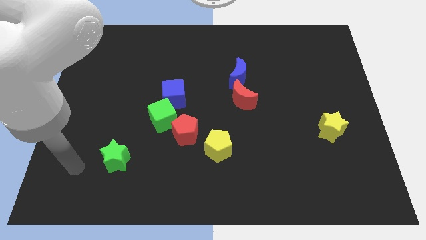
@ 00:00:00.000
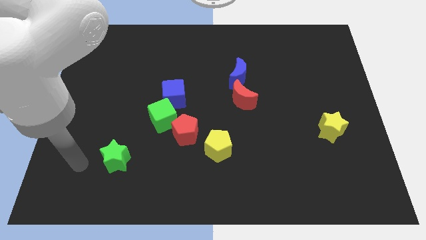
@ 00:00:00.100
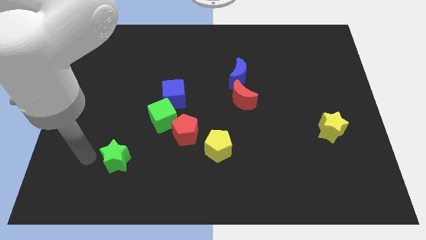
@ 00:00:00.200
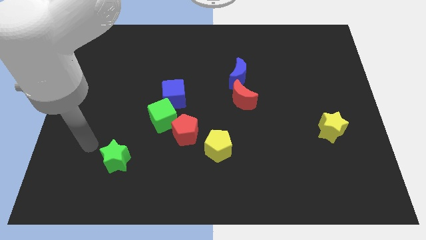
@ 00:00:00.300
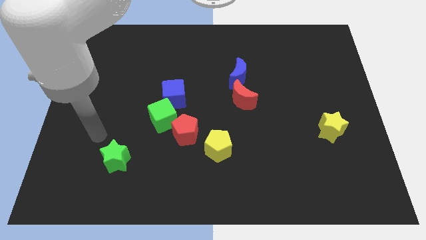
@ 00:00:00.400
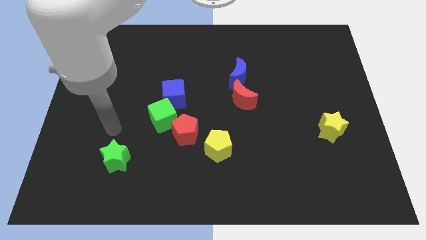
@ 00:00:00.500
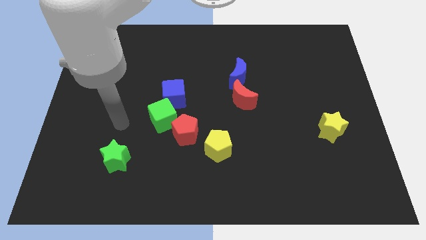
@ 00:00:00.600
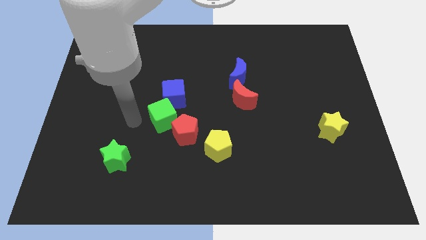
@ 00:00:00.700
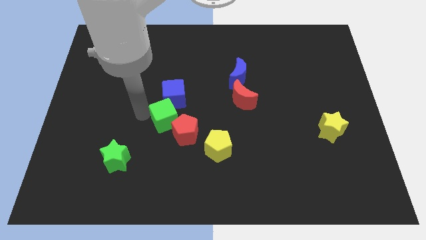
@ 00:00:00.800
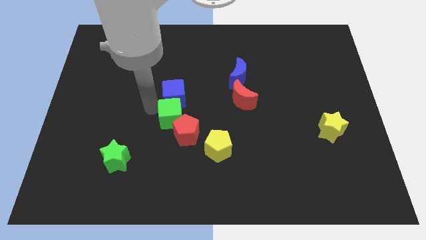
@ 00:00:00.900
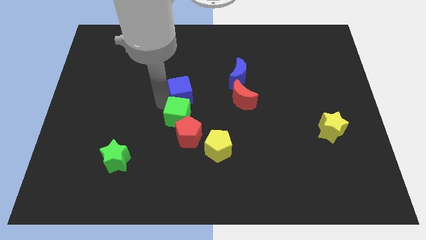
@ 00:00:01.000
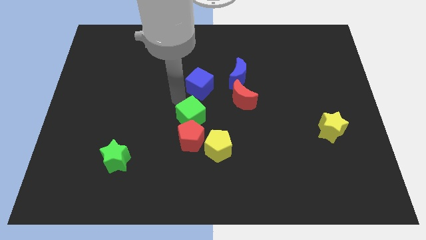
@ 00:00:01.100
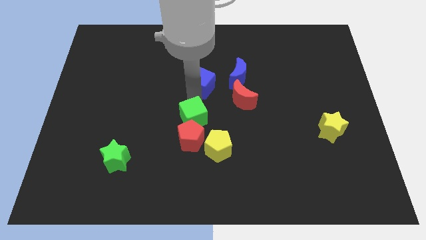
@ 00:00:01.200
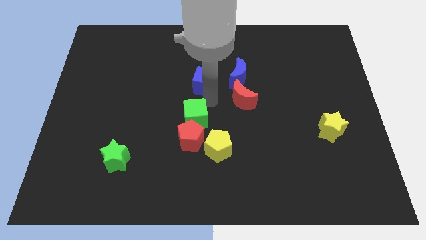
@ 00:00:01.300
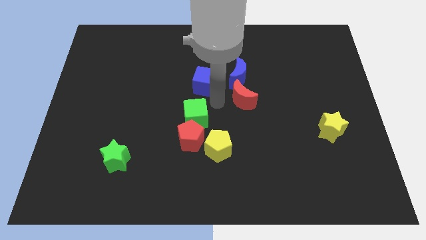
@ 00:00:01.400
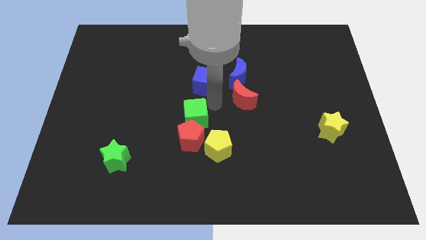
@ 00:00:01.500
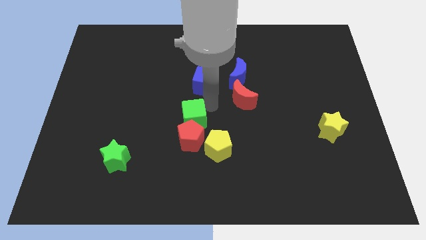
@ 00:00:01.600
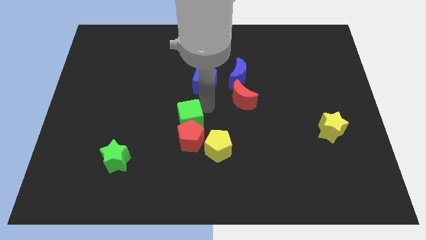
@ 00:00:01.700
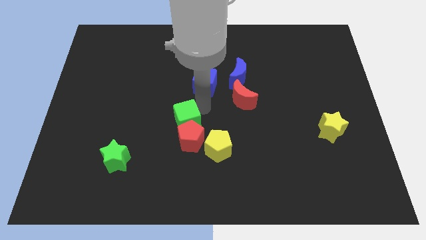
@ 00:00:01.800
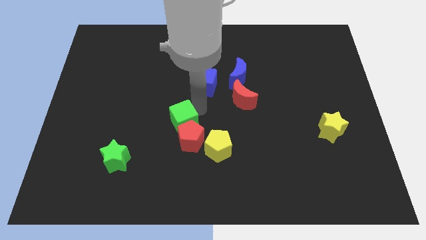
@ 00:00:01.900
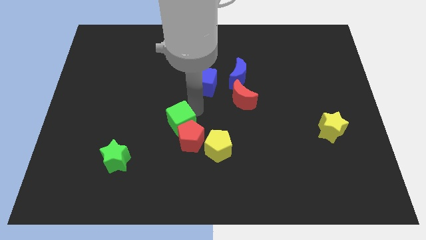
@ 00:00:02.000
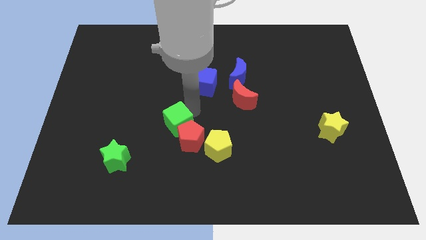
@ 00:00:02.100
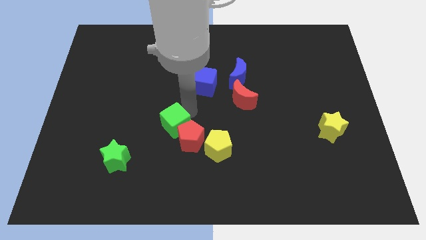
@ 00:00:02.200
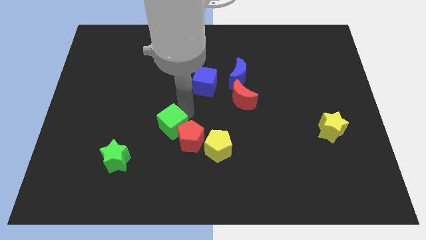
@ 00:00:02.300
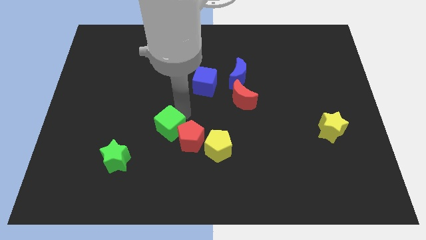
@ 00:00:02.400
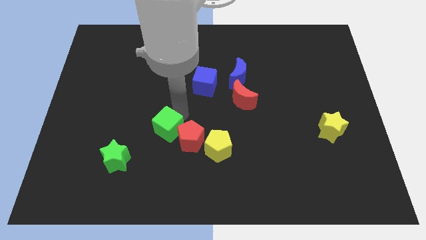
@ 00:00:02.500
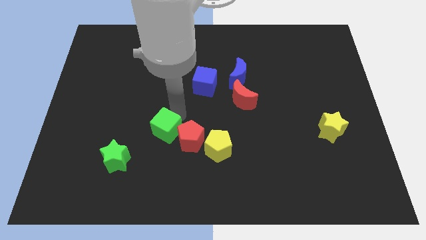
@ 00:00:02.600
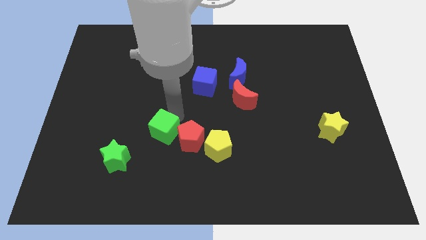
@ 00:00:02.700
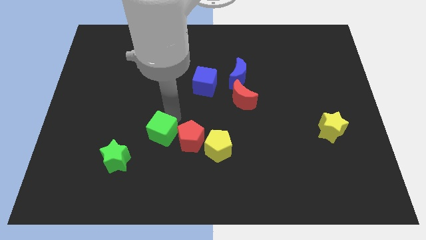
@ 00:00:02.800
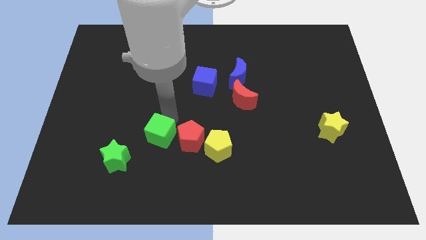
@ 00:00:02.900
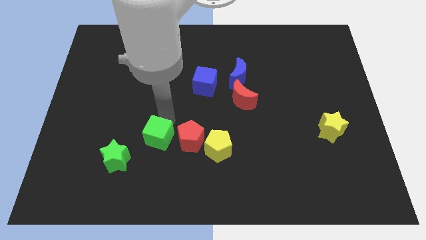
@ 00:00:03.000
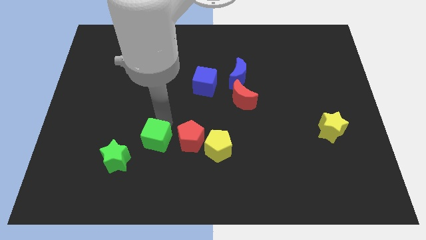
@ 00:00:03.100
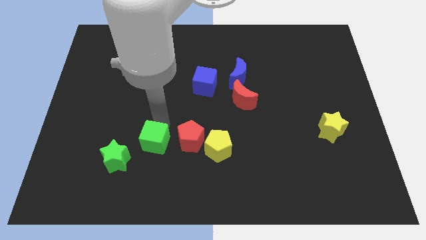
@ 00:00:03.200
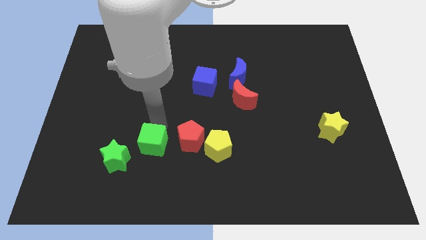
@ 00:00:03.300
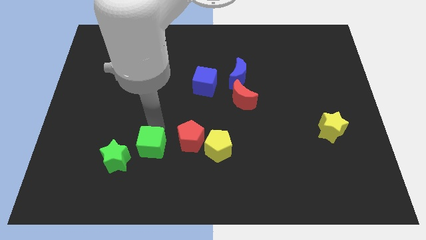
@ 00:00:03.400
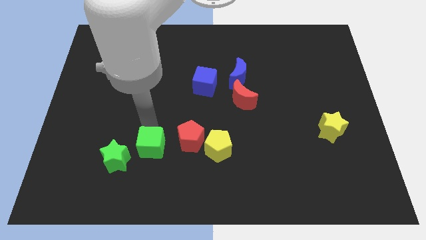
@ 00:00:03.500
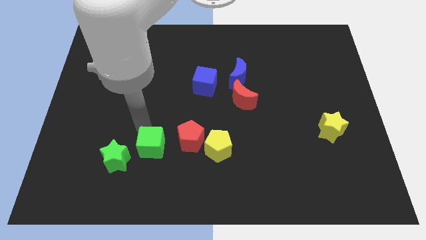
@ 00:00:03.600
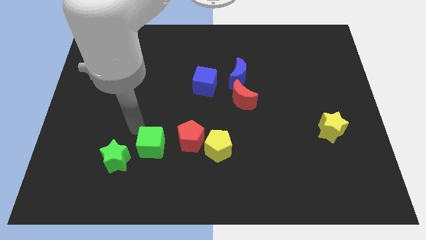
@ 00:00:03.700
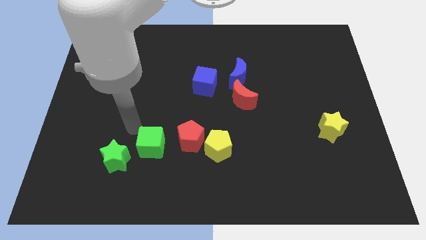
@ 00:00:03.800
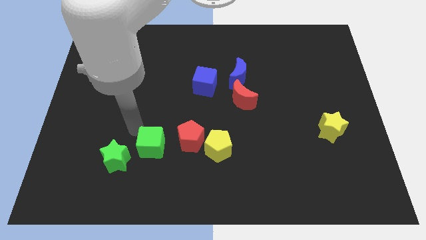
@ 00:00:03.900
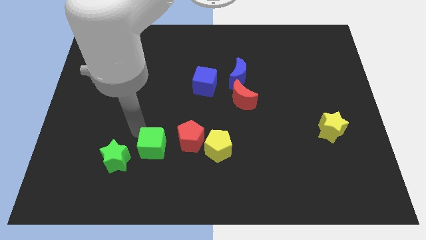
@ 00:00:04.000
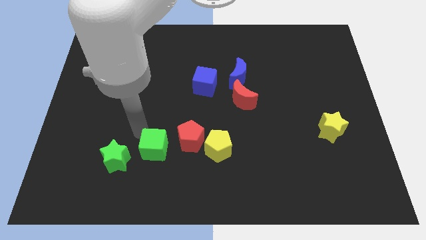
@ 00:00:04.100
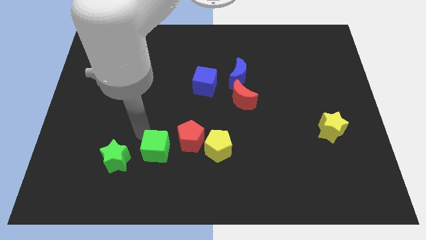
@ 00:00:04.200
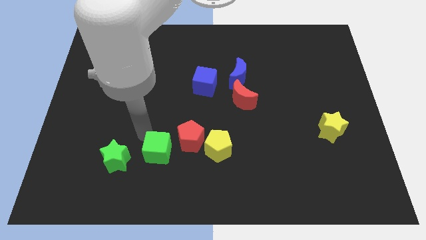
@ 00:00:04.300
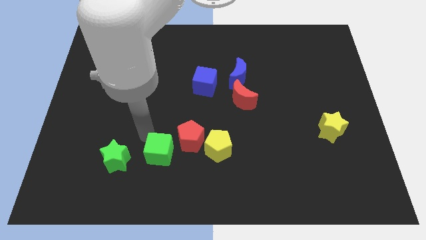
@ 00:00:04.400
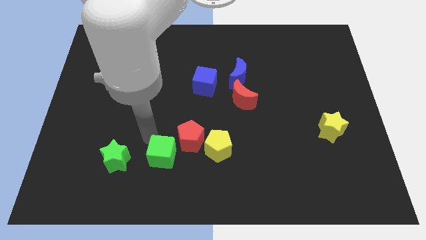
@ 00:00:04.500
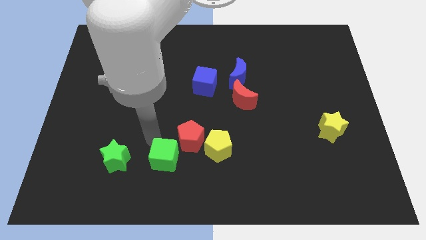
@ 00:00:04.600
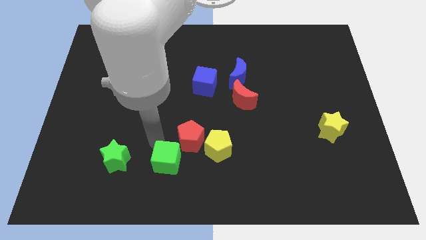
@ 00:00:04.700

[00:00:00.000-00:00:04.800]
move the green cube to the bottom side of the red pentagon

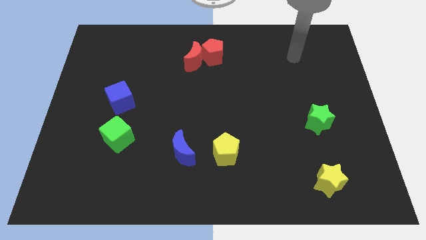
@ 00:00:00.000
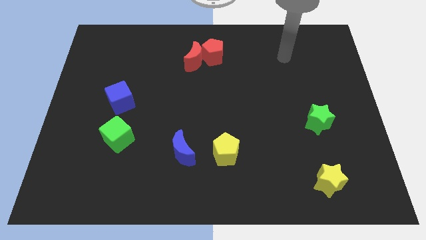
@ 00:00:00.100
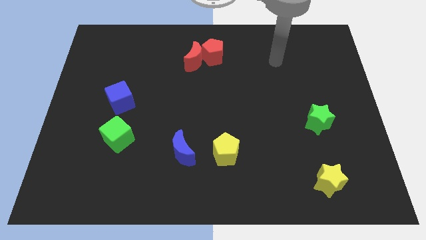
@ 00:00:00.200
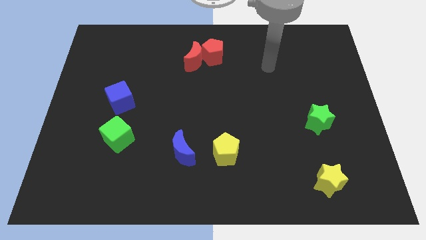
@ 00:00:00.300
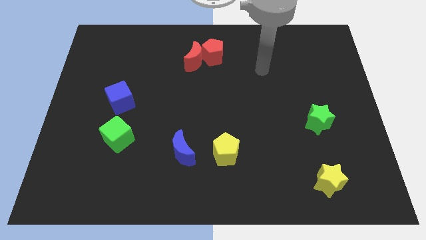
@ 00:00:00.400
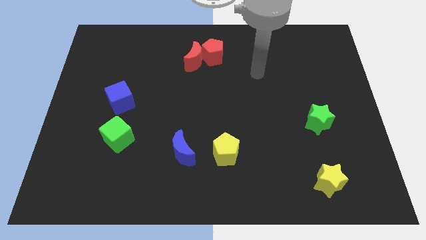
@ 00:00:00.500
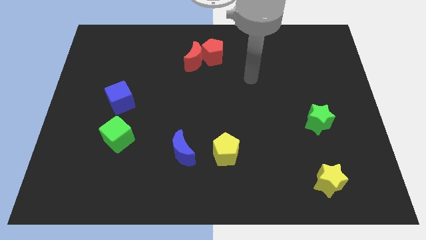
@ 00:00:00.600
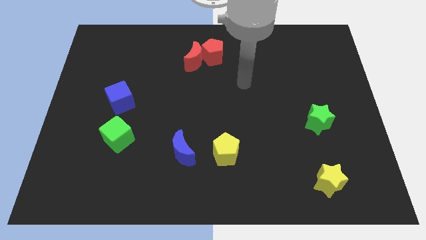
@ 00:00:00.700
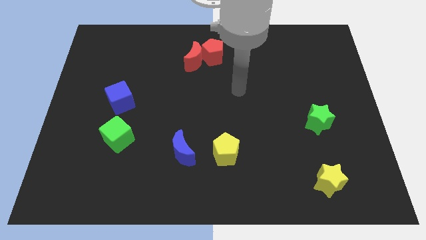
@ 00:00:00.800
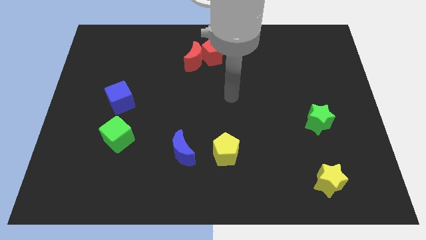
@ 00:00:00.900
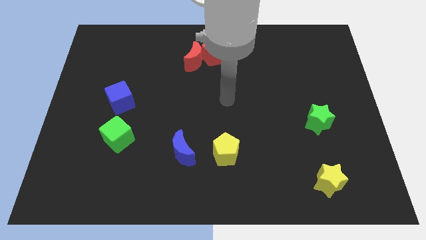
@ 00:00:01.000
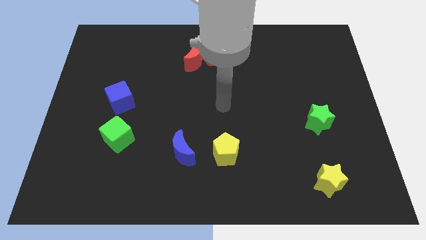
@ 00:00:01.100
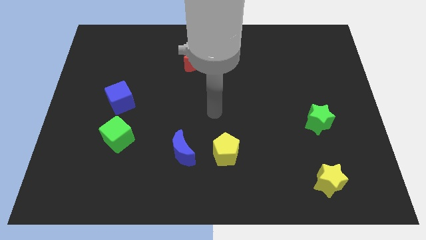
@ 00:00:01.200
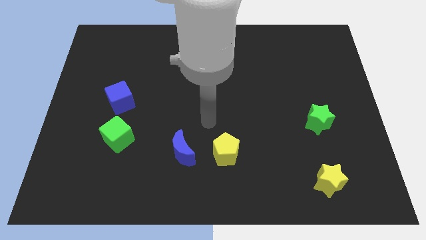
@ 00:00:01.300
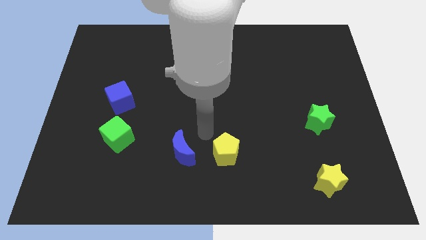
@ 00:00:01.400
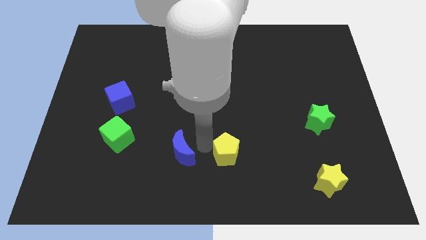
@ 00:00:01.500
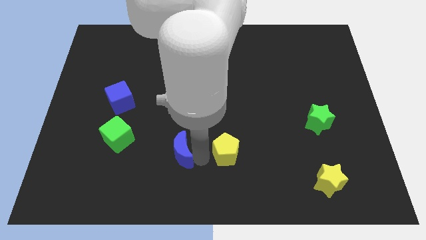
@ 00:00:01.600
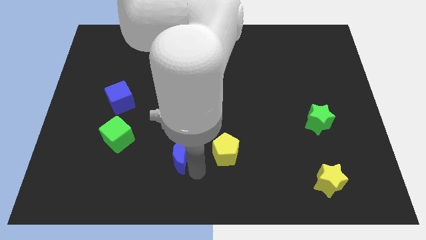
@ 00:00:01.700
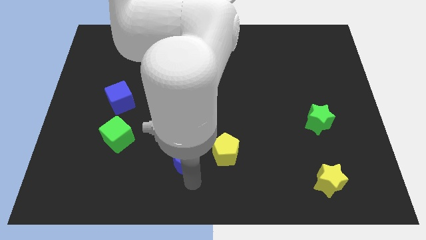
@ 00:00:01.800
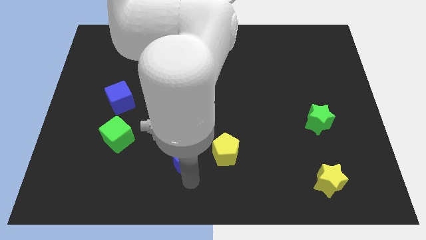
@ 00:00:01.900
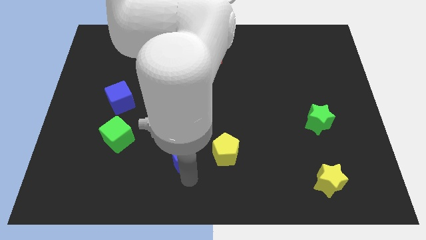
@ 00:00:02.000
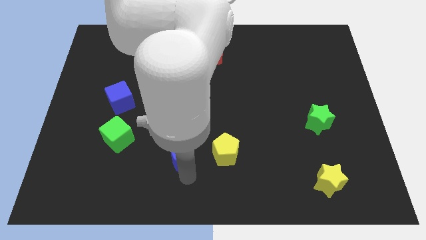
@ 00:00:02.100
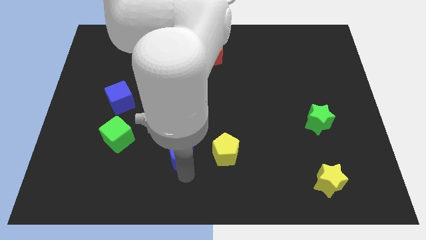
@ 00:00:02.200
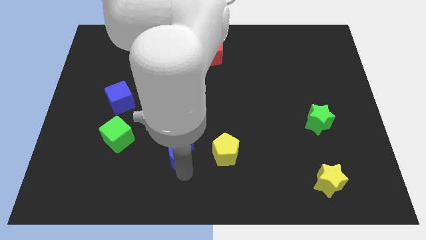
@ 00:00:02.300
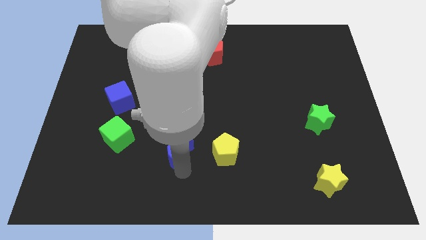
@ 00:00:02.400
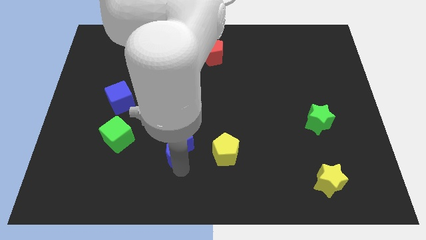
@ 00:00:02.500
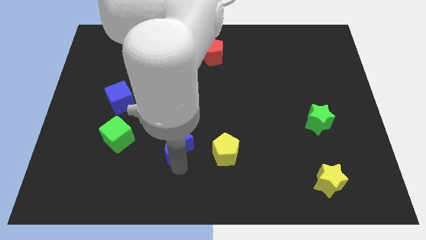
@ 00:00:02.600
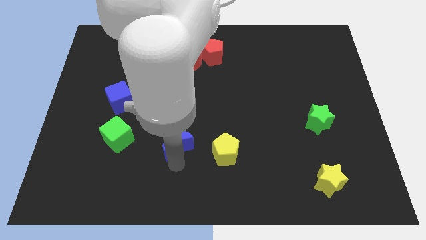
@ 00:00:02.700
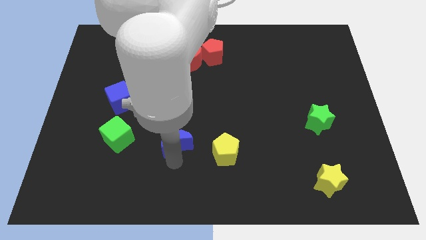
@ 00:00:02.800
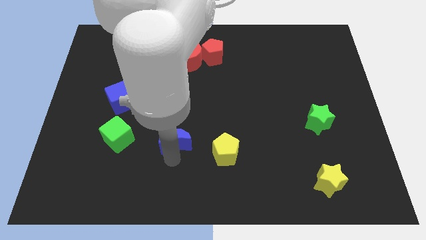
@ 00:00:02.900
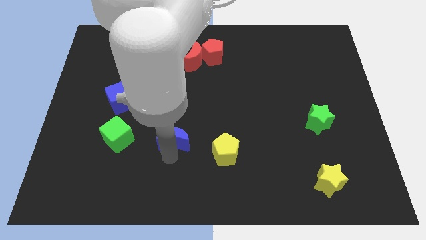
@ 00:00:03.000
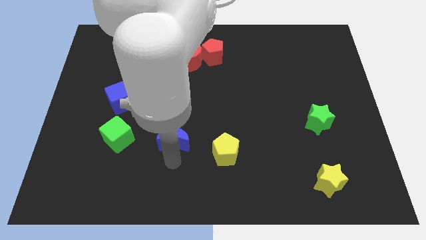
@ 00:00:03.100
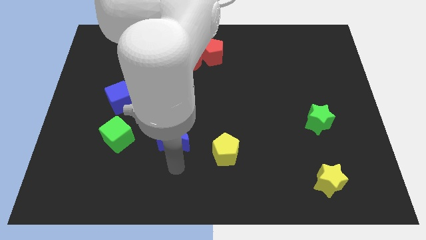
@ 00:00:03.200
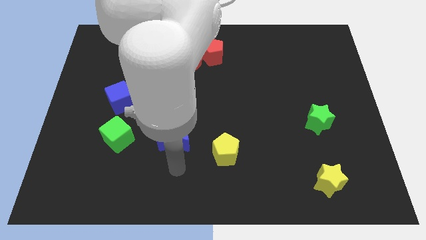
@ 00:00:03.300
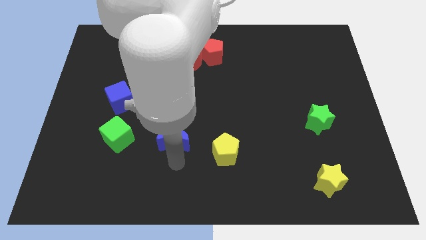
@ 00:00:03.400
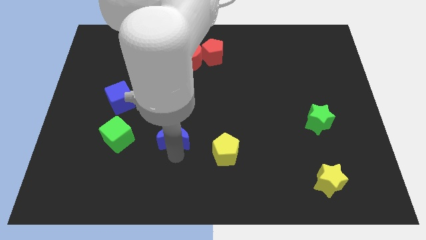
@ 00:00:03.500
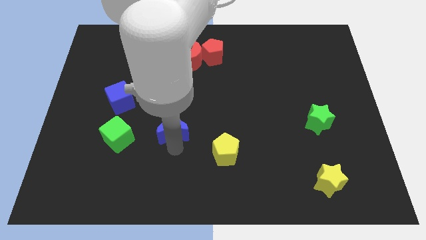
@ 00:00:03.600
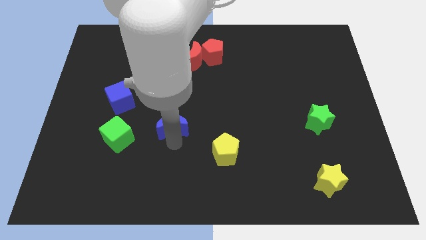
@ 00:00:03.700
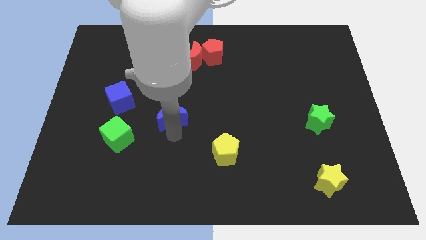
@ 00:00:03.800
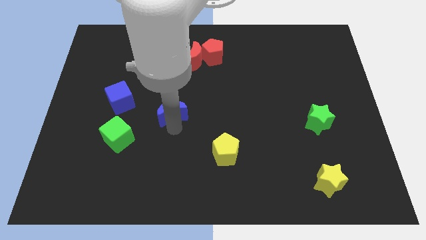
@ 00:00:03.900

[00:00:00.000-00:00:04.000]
move the blue moon just right of the blue cube
